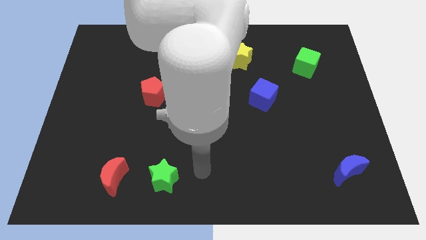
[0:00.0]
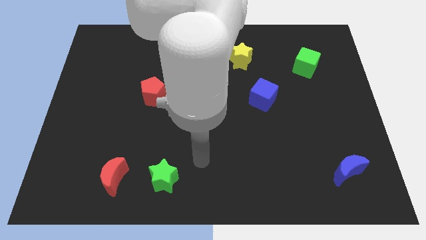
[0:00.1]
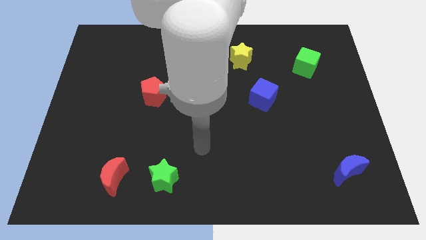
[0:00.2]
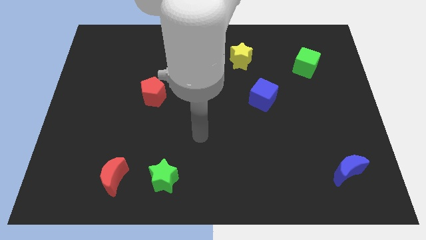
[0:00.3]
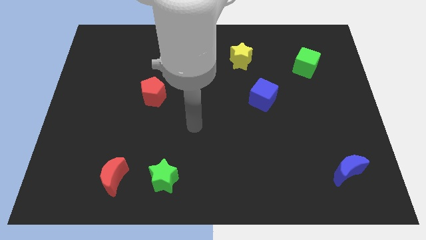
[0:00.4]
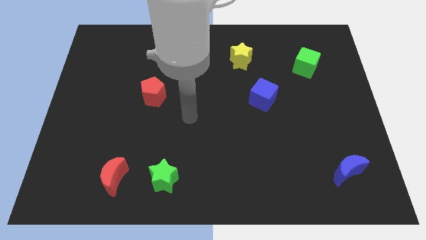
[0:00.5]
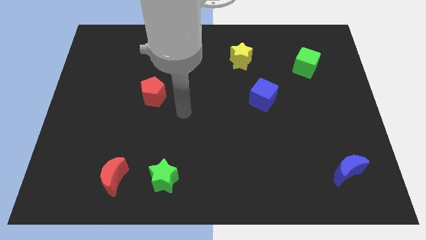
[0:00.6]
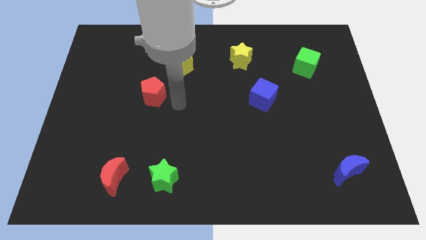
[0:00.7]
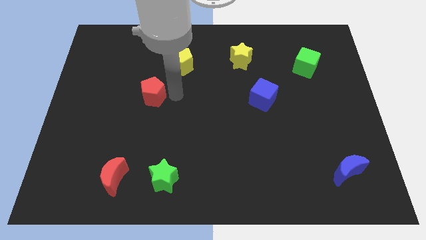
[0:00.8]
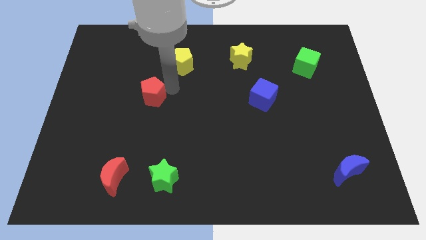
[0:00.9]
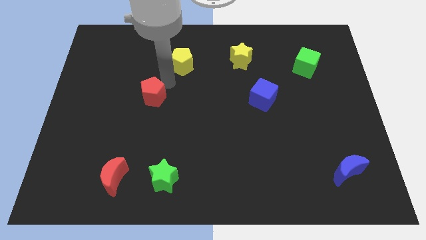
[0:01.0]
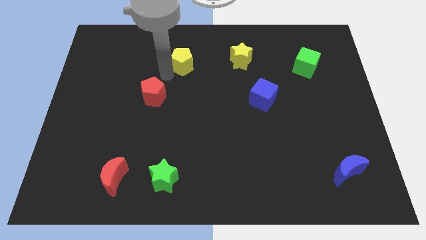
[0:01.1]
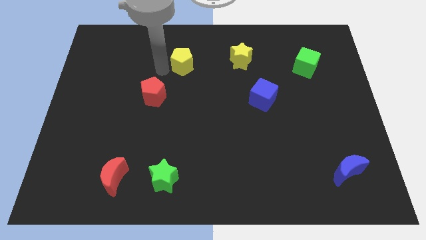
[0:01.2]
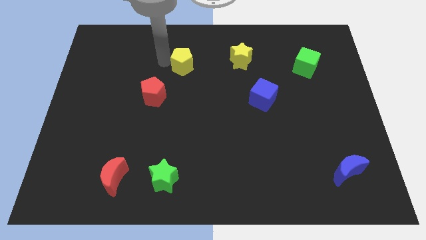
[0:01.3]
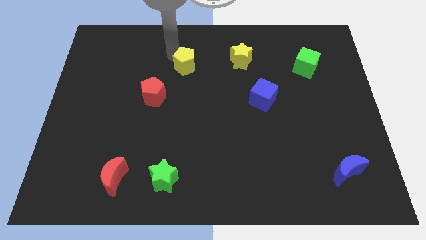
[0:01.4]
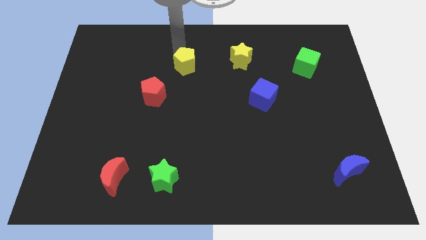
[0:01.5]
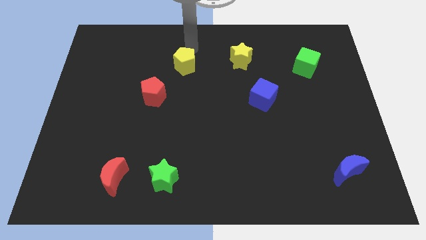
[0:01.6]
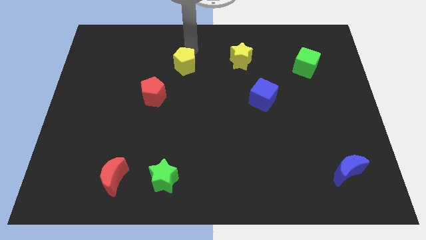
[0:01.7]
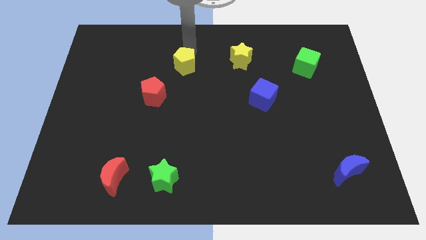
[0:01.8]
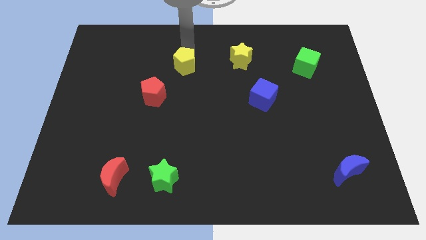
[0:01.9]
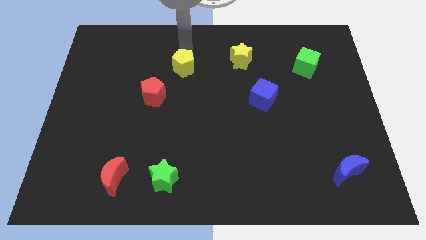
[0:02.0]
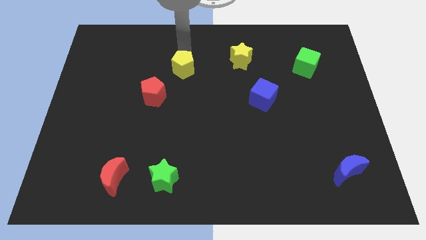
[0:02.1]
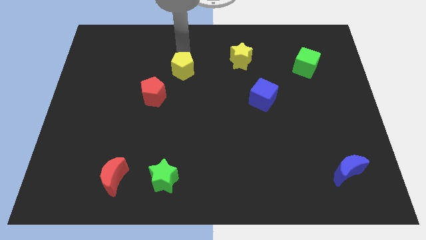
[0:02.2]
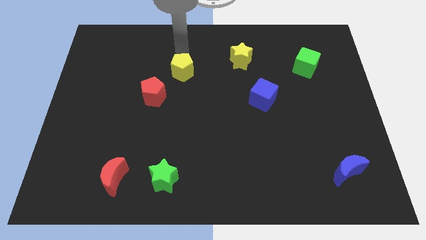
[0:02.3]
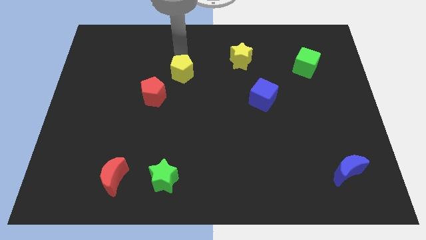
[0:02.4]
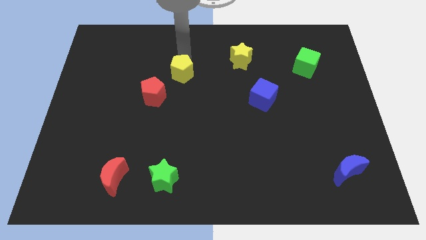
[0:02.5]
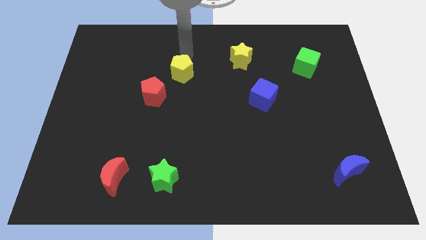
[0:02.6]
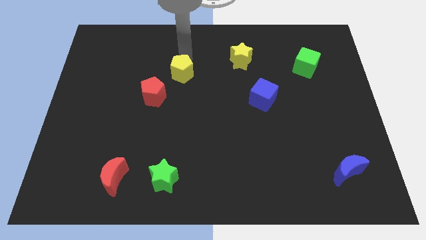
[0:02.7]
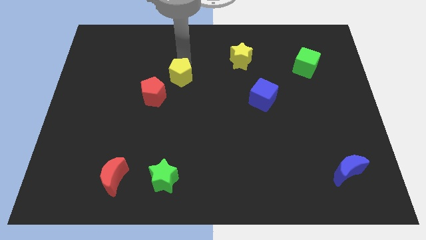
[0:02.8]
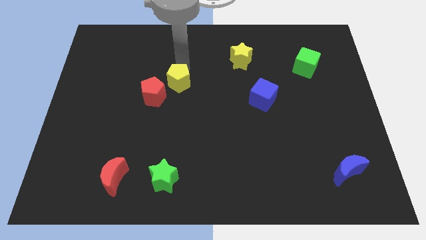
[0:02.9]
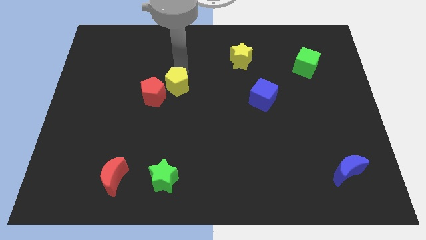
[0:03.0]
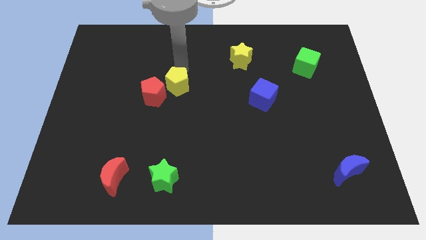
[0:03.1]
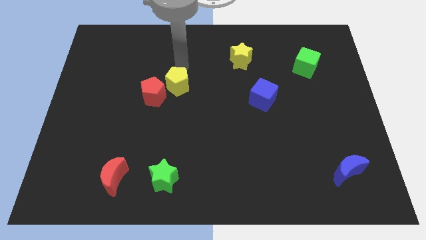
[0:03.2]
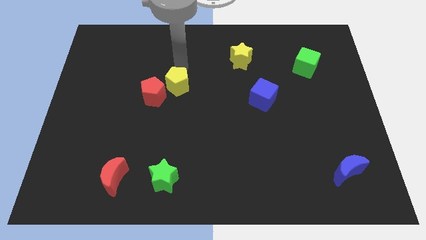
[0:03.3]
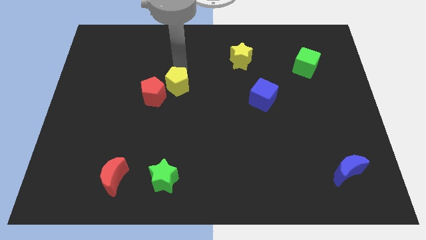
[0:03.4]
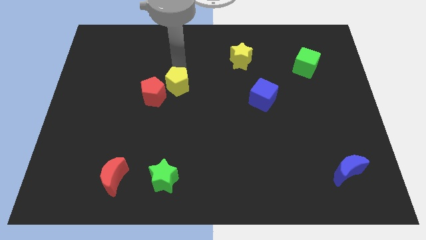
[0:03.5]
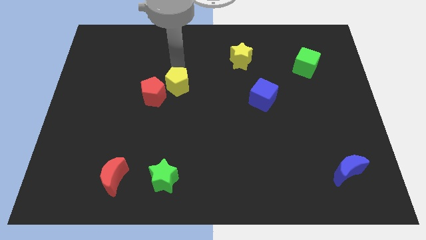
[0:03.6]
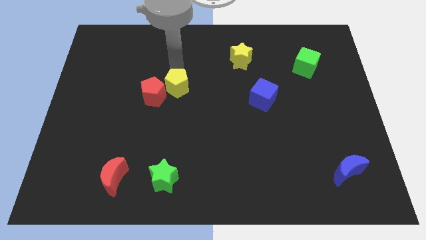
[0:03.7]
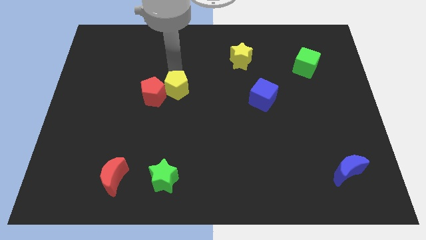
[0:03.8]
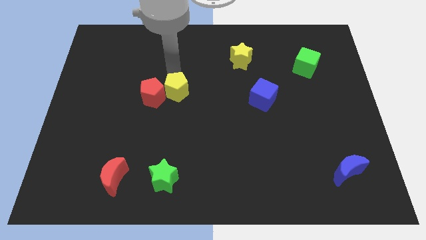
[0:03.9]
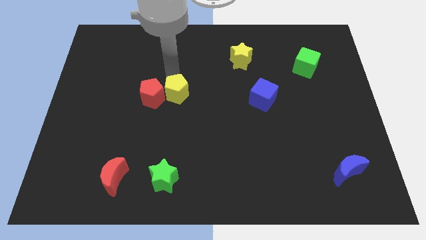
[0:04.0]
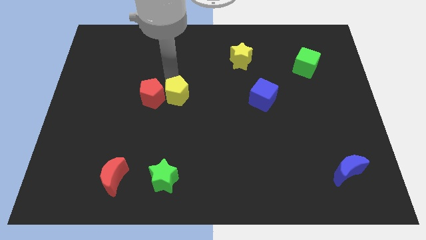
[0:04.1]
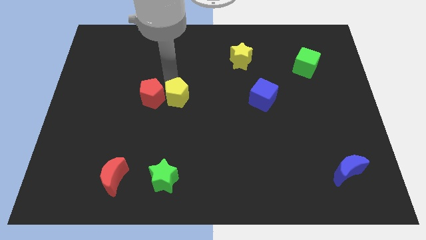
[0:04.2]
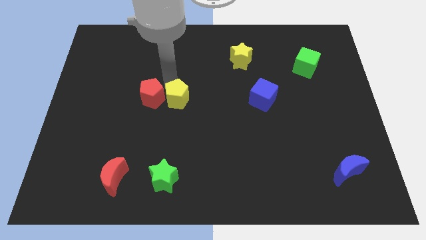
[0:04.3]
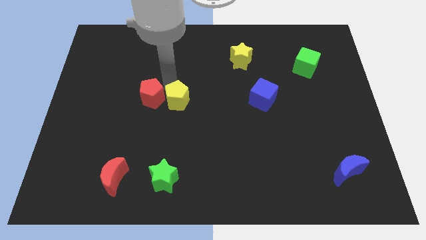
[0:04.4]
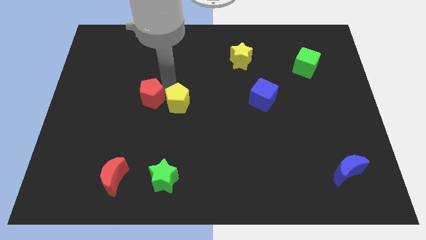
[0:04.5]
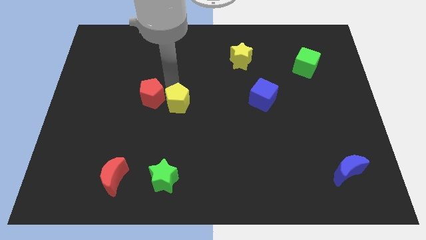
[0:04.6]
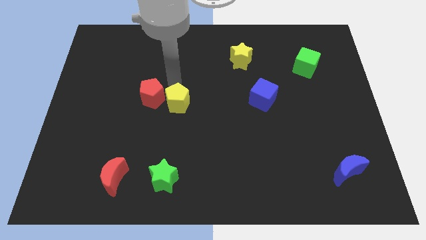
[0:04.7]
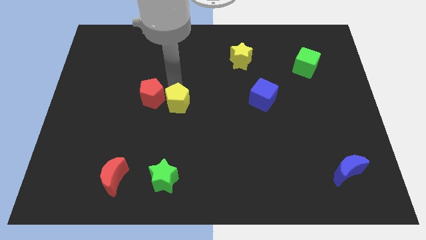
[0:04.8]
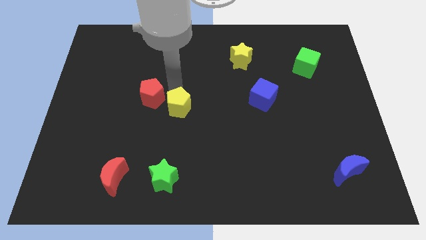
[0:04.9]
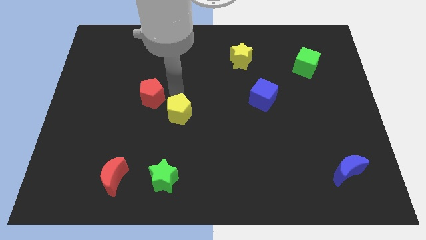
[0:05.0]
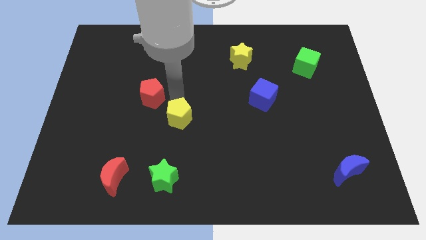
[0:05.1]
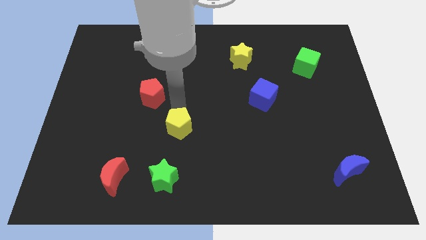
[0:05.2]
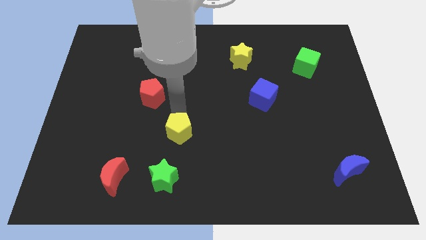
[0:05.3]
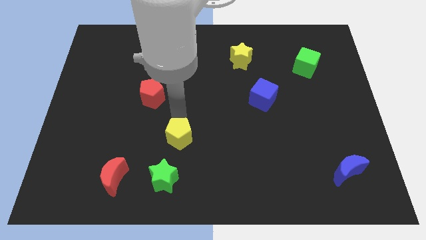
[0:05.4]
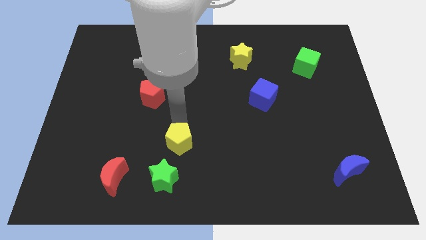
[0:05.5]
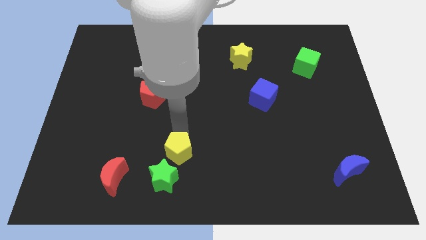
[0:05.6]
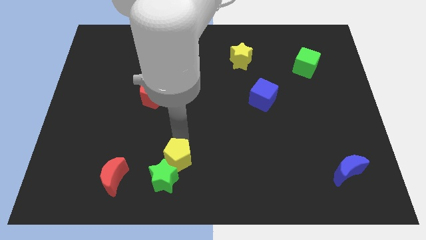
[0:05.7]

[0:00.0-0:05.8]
slide the yellow pentagon next to the green star

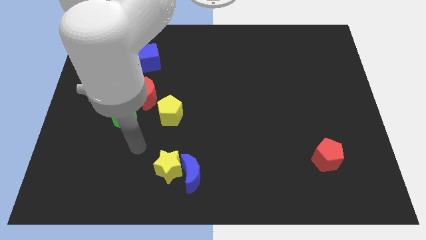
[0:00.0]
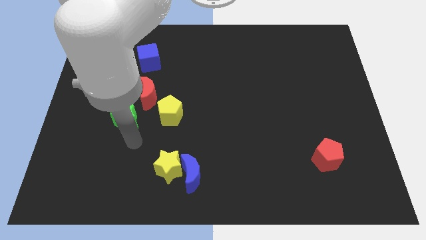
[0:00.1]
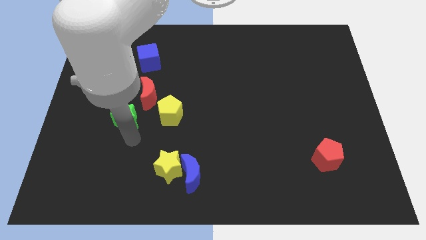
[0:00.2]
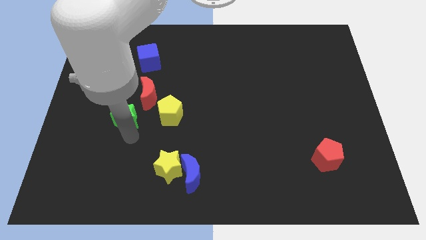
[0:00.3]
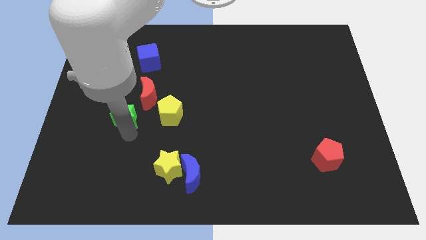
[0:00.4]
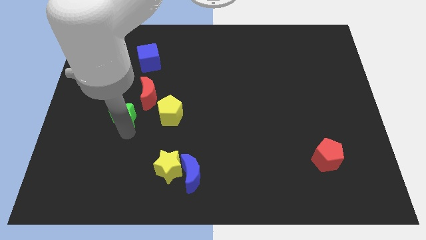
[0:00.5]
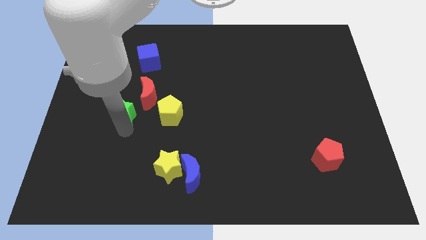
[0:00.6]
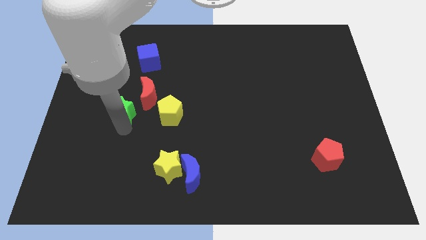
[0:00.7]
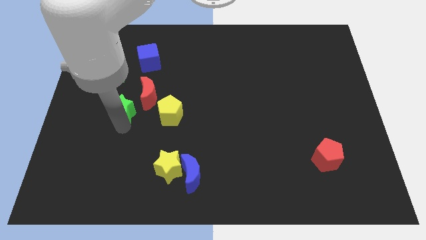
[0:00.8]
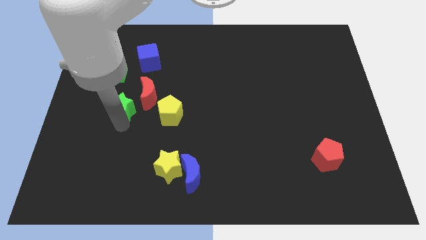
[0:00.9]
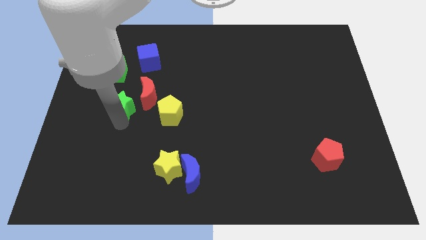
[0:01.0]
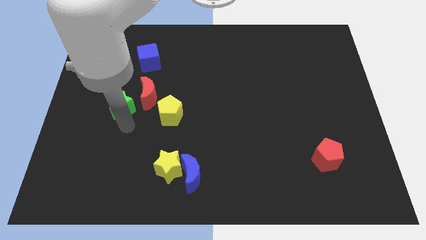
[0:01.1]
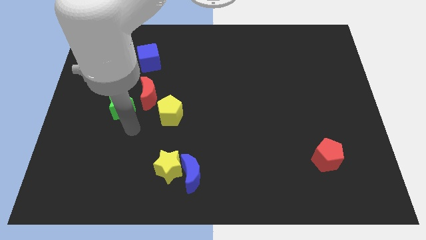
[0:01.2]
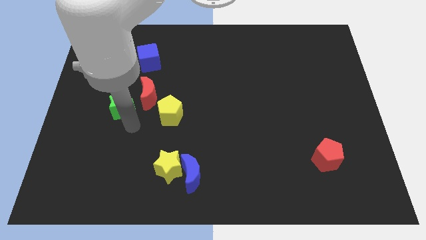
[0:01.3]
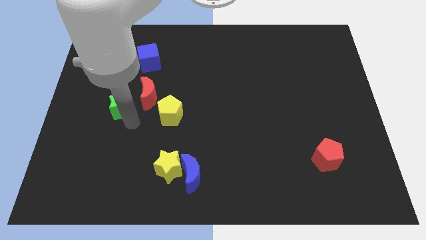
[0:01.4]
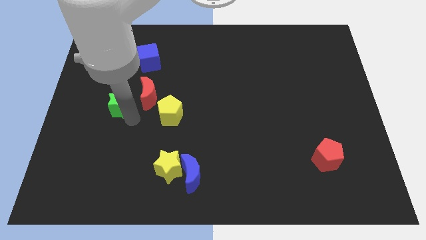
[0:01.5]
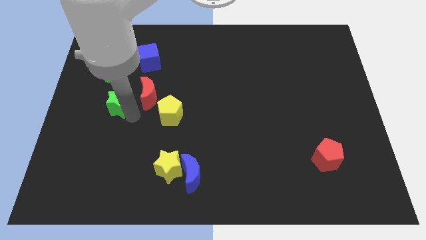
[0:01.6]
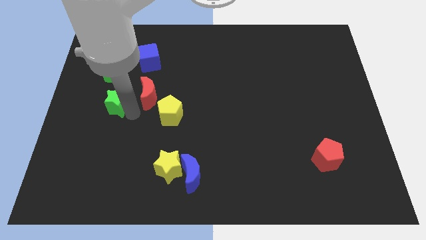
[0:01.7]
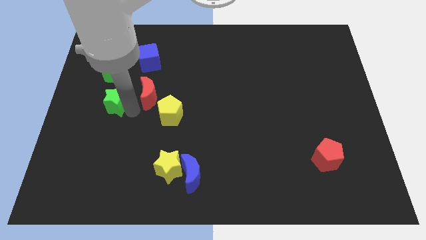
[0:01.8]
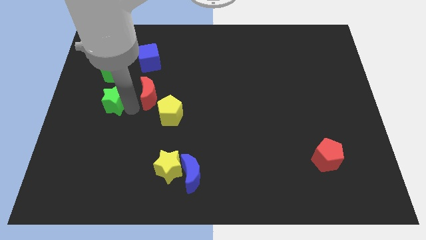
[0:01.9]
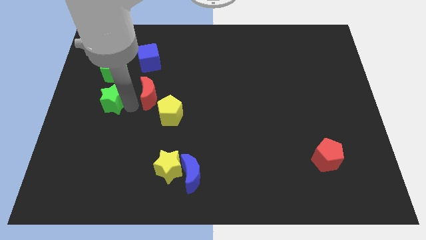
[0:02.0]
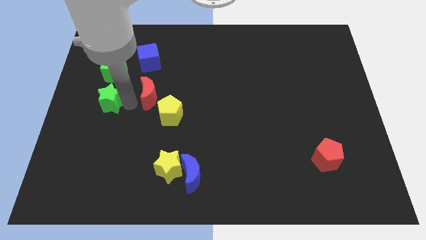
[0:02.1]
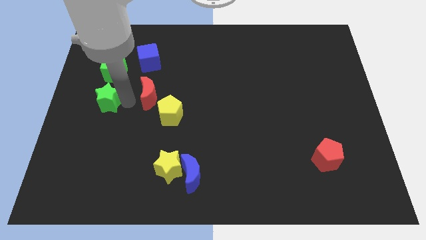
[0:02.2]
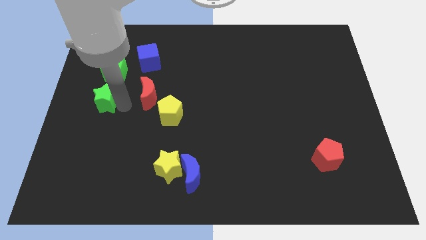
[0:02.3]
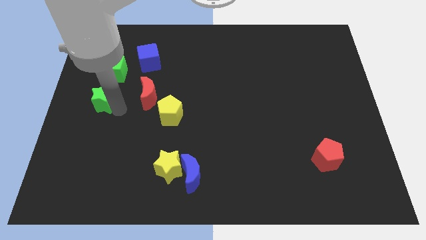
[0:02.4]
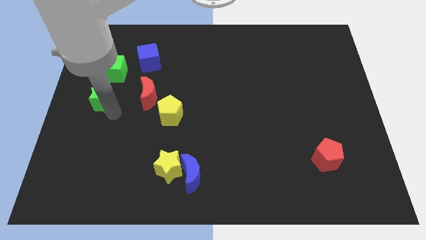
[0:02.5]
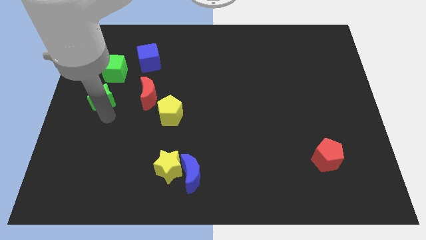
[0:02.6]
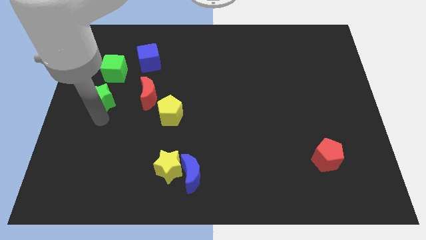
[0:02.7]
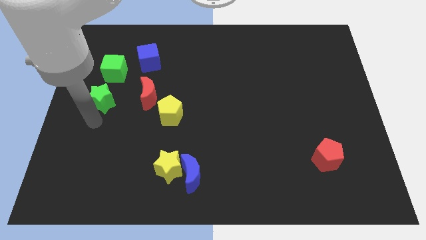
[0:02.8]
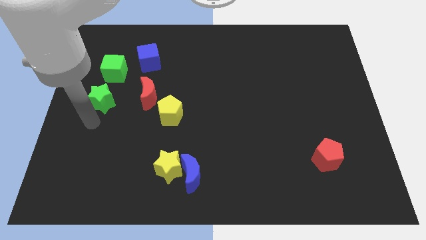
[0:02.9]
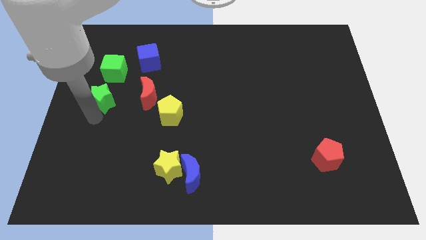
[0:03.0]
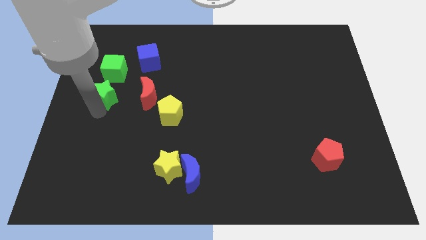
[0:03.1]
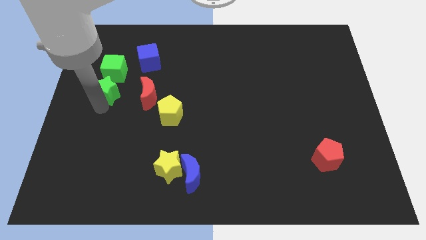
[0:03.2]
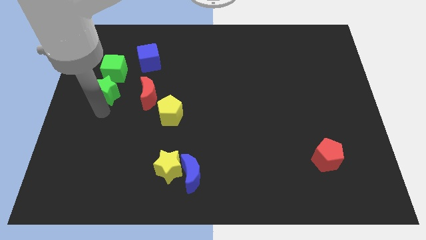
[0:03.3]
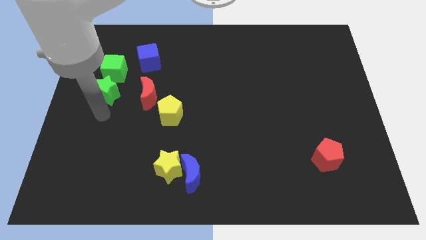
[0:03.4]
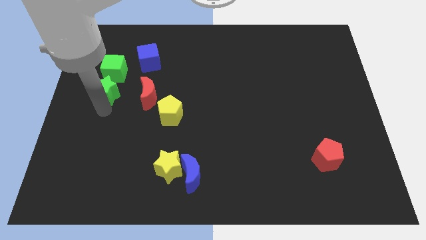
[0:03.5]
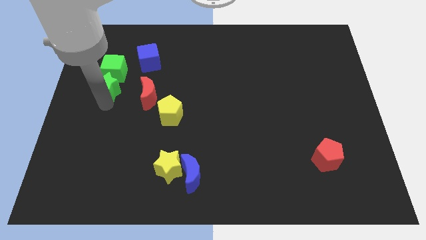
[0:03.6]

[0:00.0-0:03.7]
slide the green star to the green cube
